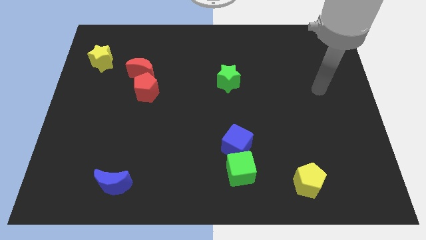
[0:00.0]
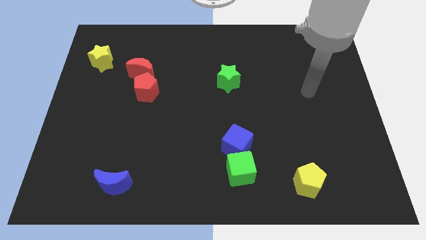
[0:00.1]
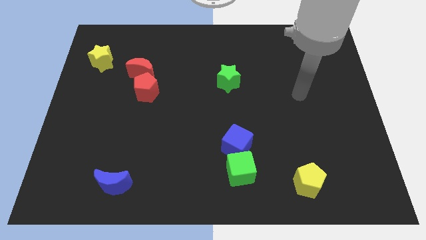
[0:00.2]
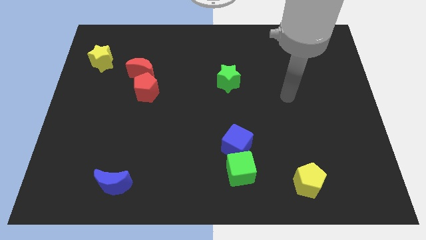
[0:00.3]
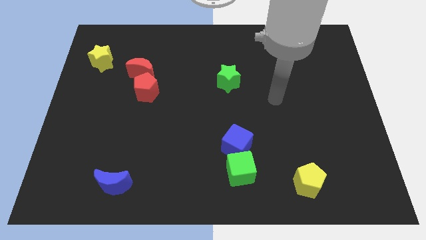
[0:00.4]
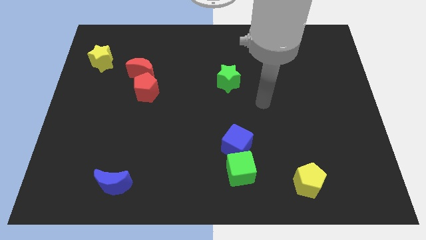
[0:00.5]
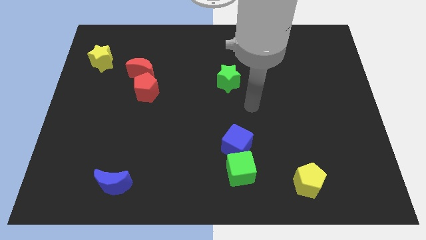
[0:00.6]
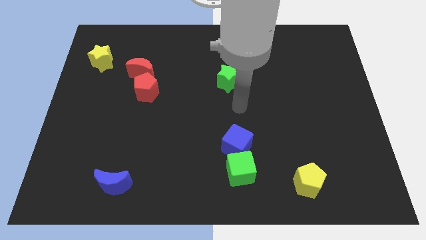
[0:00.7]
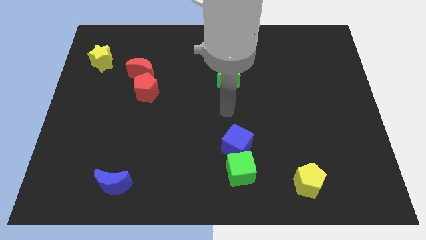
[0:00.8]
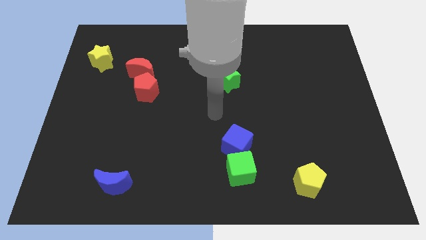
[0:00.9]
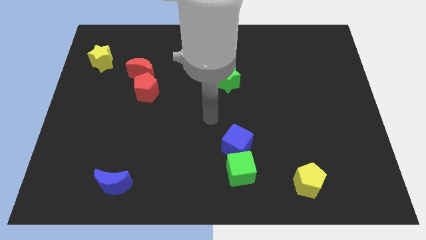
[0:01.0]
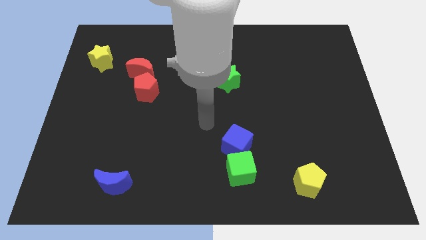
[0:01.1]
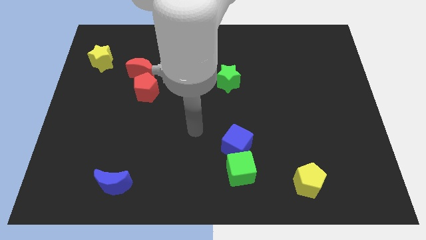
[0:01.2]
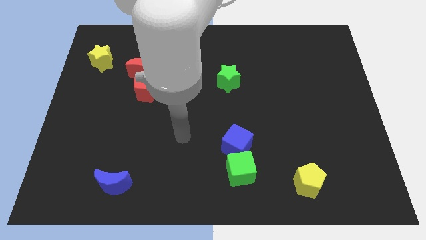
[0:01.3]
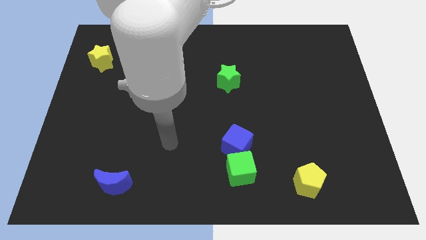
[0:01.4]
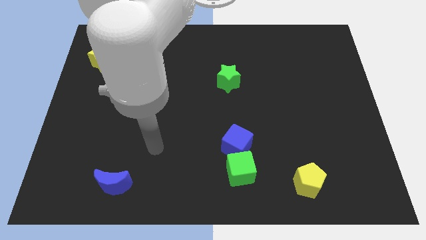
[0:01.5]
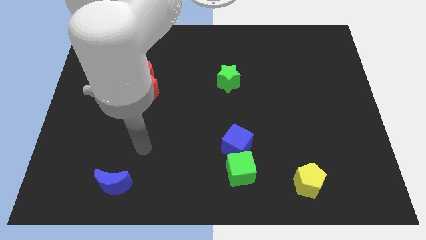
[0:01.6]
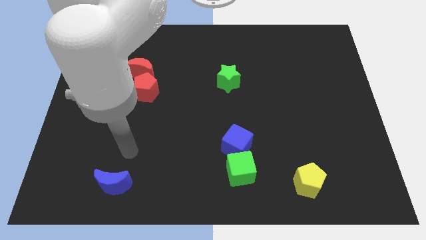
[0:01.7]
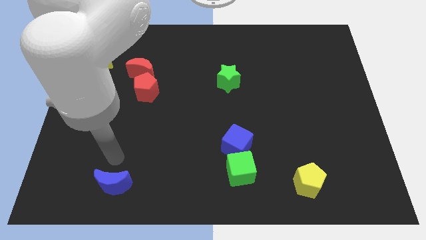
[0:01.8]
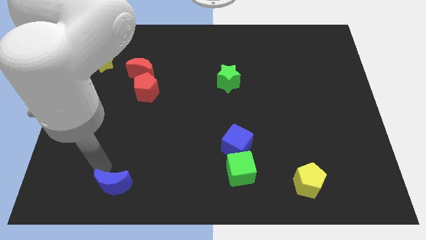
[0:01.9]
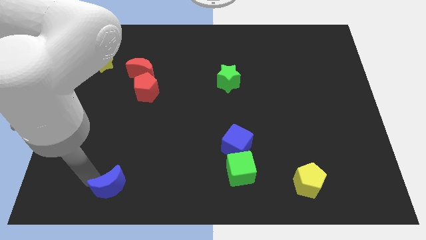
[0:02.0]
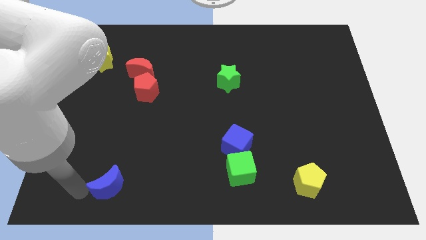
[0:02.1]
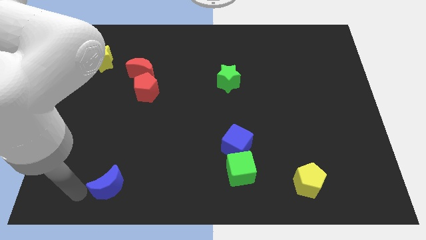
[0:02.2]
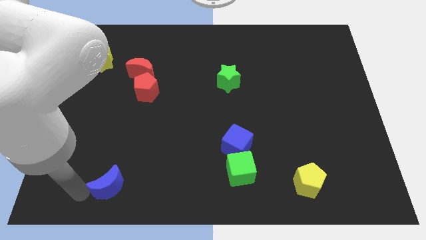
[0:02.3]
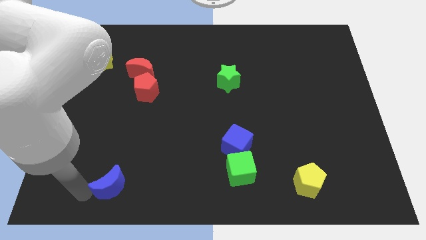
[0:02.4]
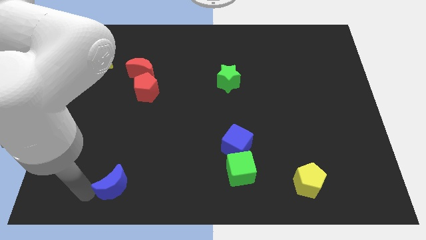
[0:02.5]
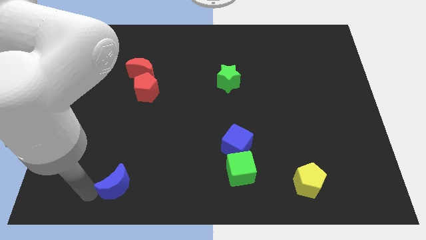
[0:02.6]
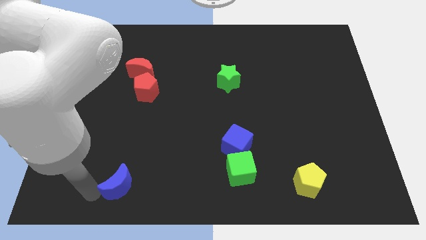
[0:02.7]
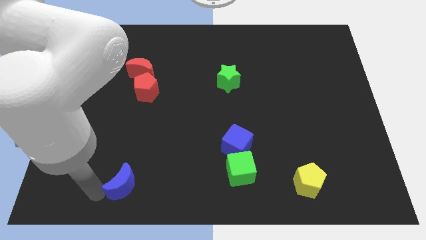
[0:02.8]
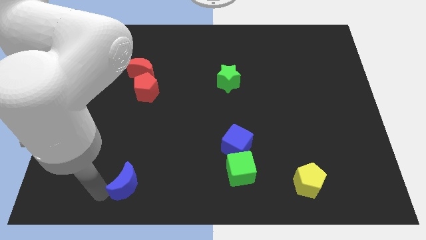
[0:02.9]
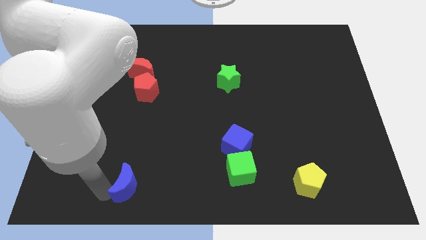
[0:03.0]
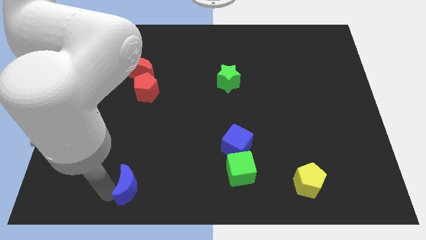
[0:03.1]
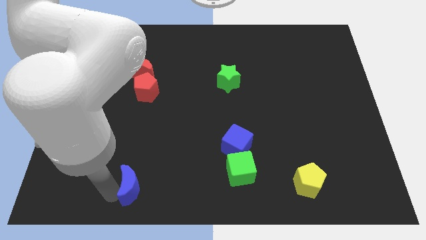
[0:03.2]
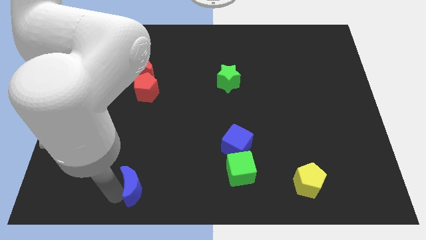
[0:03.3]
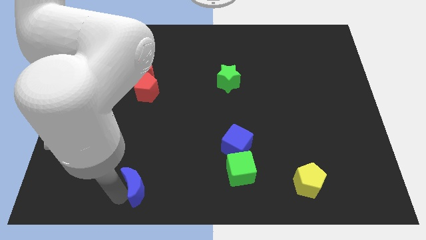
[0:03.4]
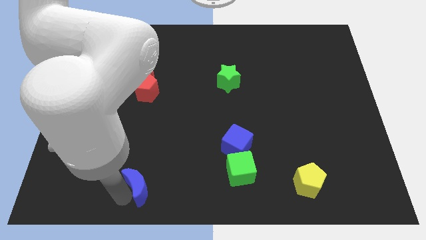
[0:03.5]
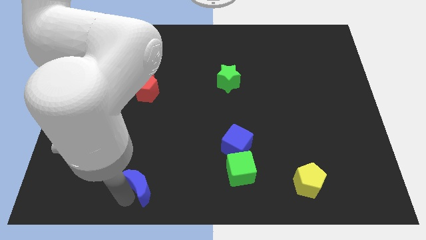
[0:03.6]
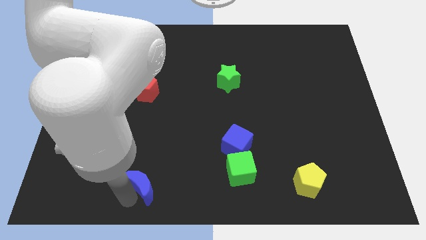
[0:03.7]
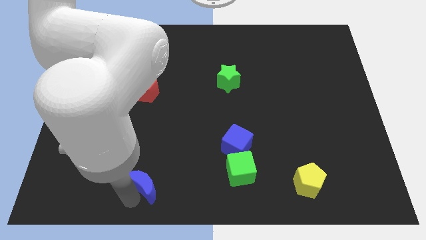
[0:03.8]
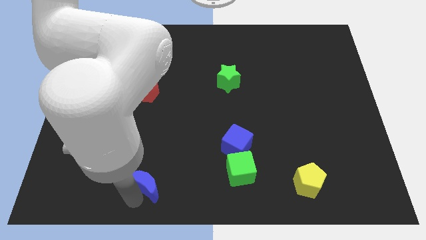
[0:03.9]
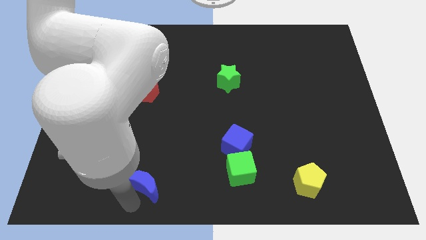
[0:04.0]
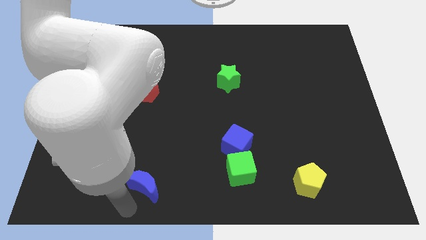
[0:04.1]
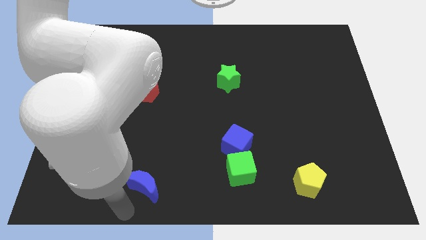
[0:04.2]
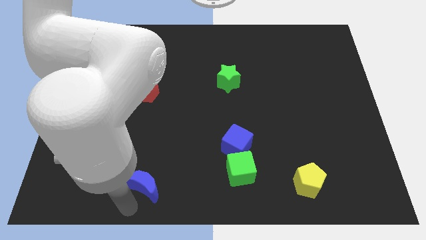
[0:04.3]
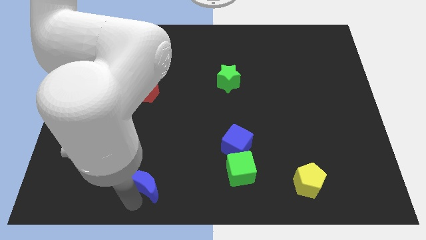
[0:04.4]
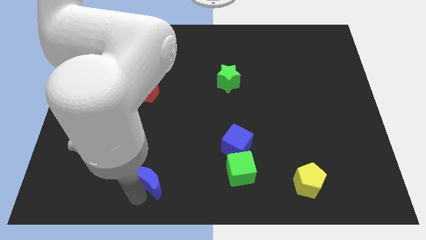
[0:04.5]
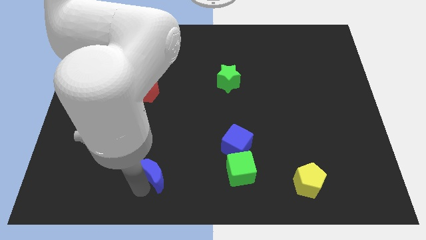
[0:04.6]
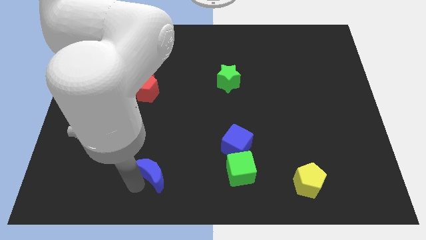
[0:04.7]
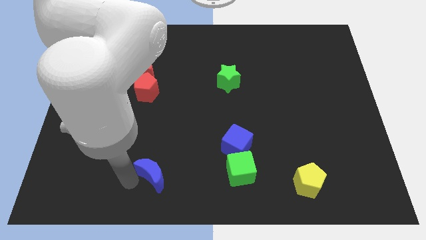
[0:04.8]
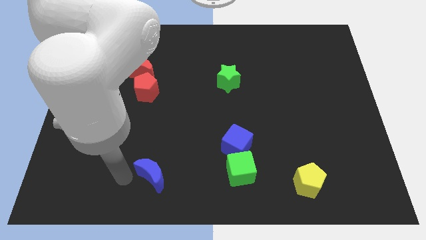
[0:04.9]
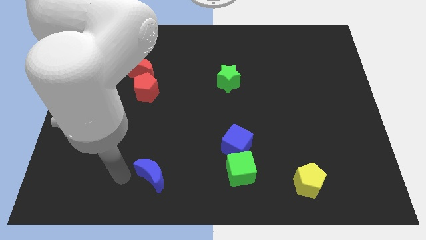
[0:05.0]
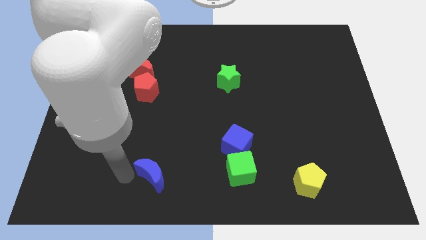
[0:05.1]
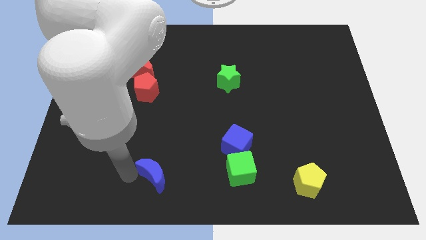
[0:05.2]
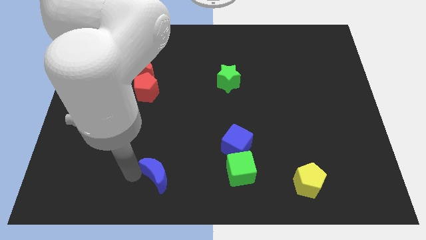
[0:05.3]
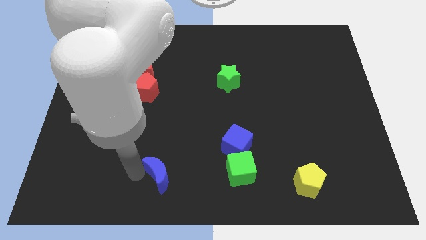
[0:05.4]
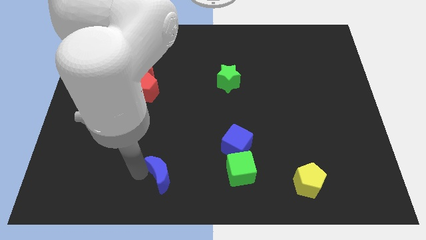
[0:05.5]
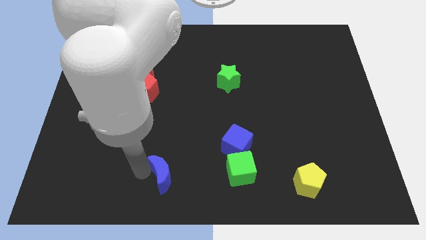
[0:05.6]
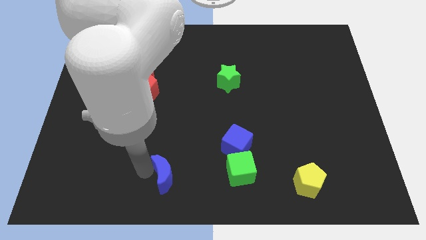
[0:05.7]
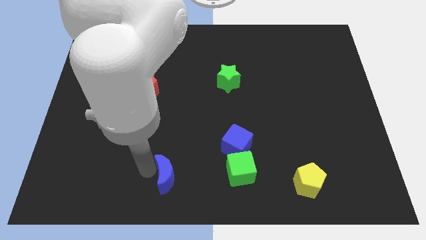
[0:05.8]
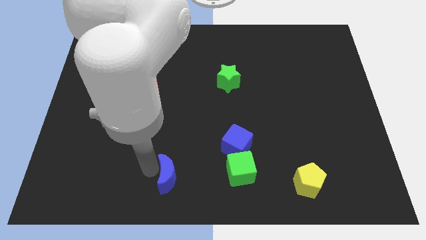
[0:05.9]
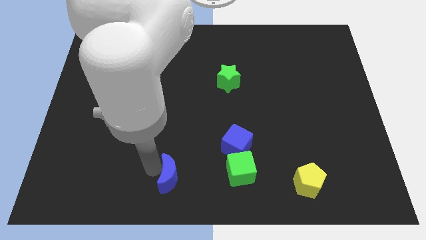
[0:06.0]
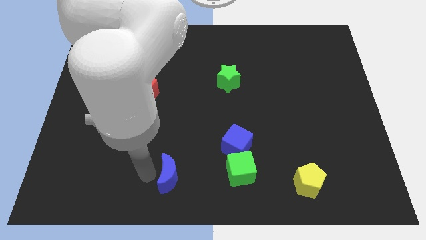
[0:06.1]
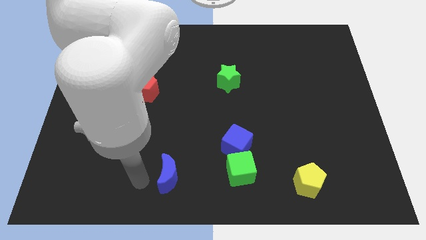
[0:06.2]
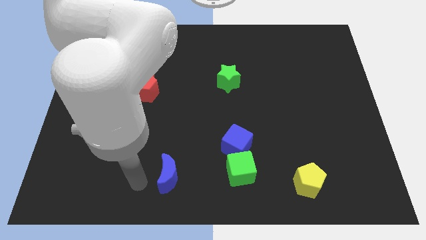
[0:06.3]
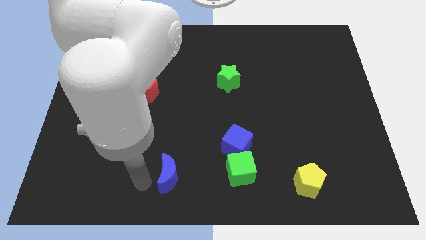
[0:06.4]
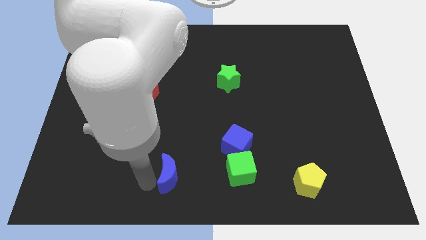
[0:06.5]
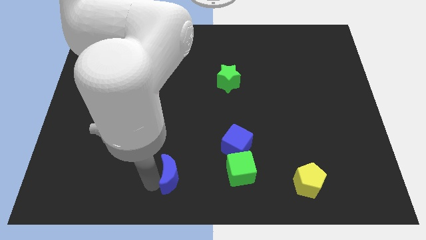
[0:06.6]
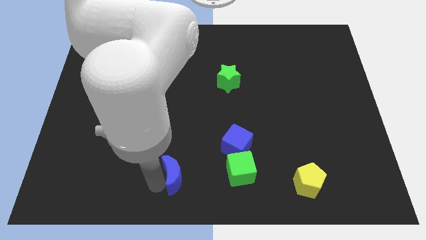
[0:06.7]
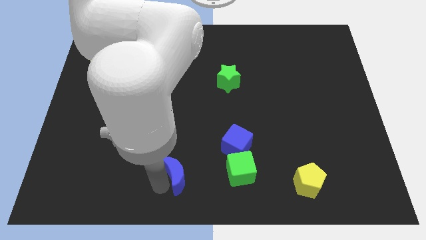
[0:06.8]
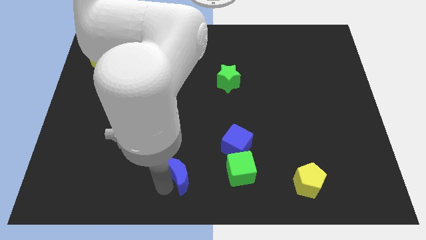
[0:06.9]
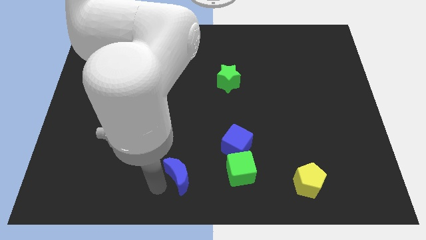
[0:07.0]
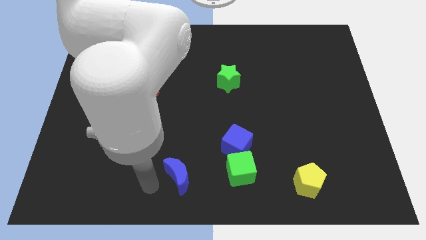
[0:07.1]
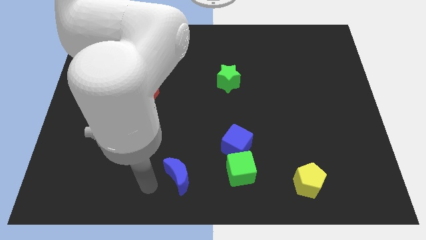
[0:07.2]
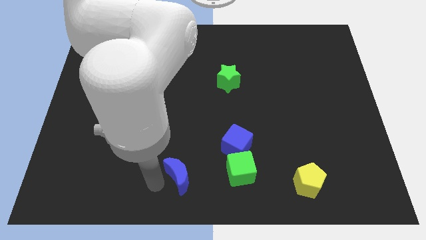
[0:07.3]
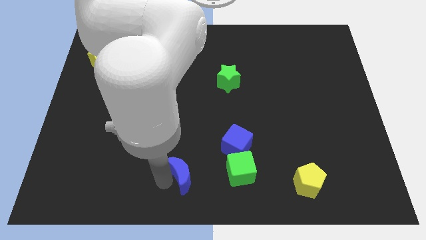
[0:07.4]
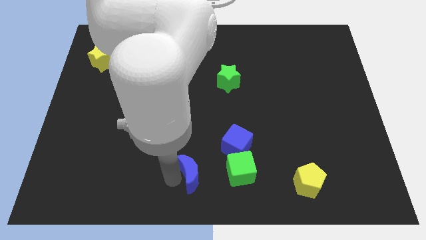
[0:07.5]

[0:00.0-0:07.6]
slide the blue moon to the bottom left of the blue cube
